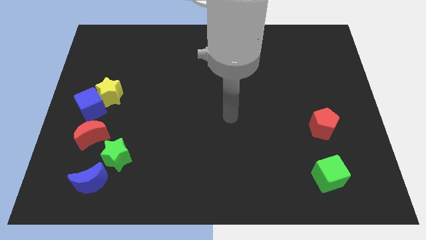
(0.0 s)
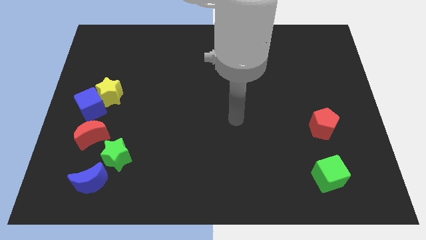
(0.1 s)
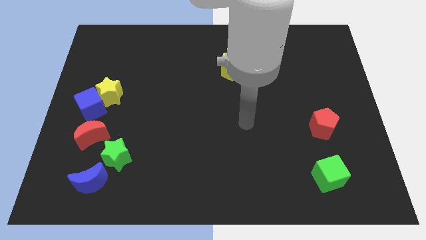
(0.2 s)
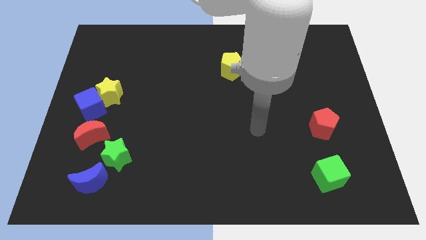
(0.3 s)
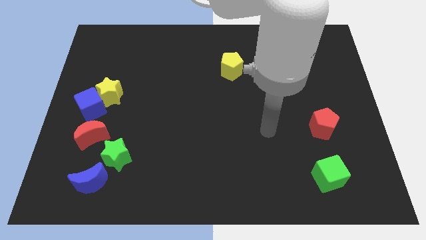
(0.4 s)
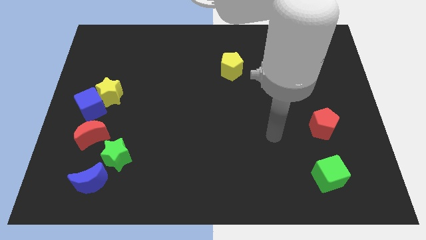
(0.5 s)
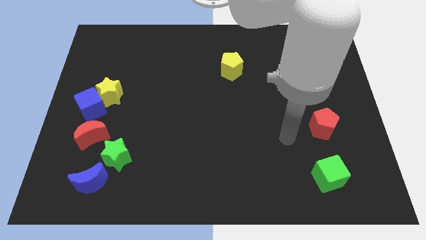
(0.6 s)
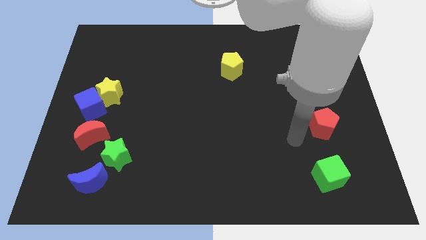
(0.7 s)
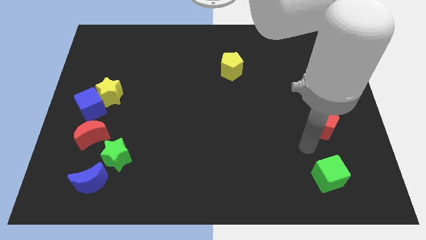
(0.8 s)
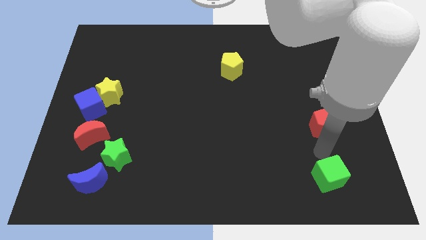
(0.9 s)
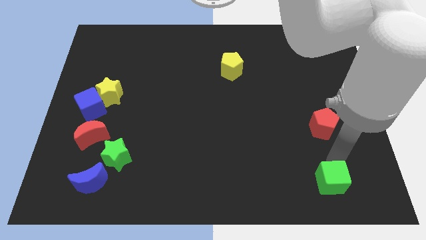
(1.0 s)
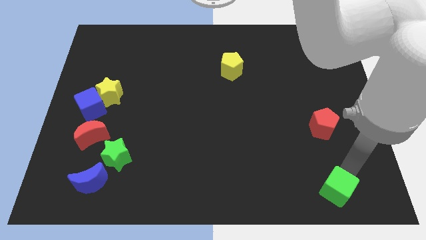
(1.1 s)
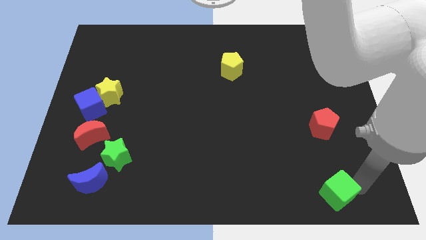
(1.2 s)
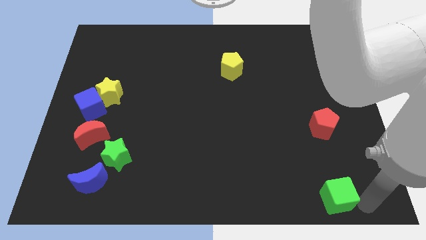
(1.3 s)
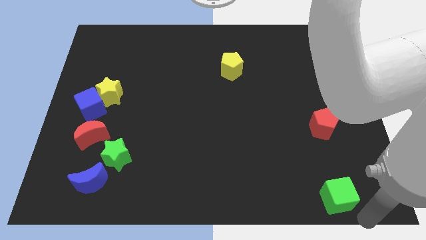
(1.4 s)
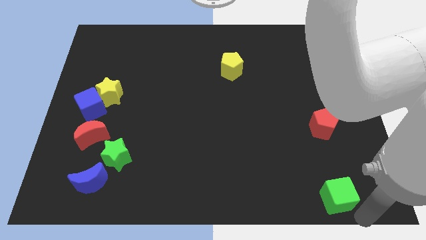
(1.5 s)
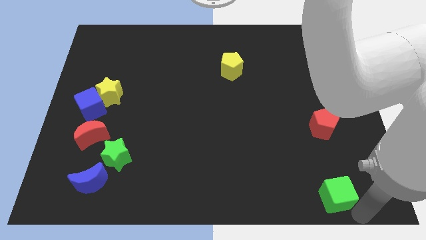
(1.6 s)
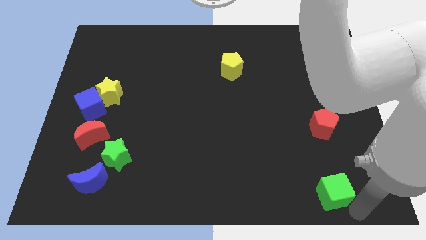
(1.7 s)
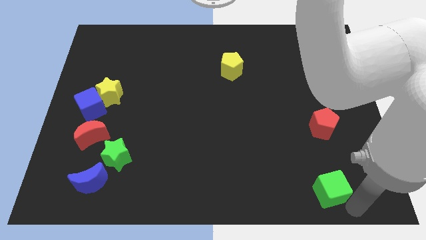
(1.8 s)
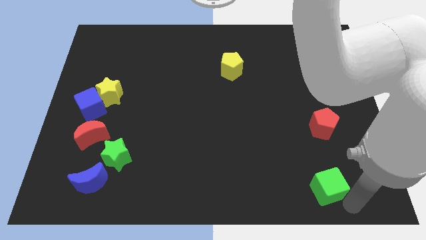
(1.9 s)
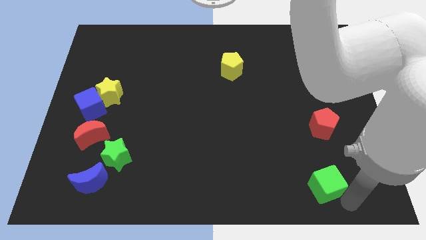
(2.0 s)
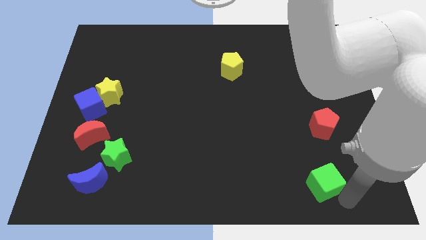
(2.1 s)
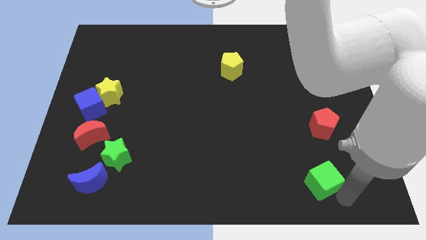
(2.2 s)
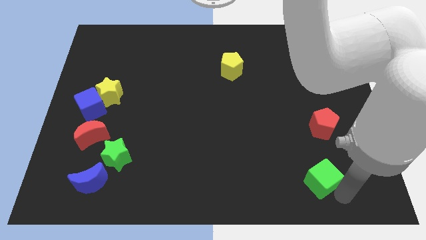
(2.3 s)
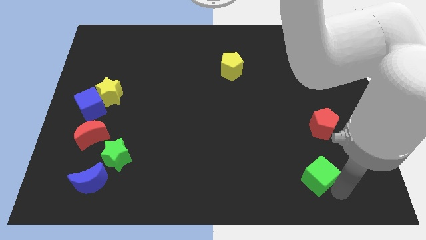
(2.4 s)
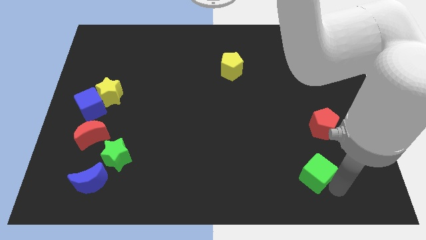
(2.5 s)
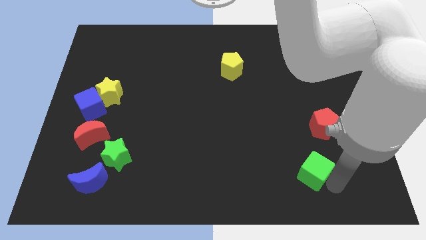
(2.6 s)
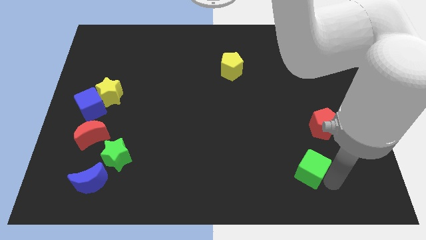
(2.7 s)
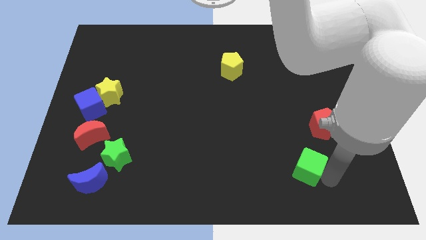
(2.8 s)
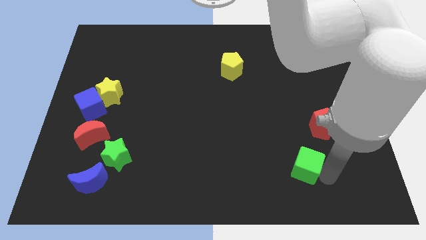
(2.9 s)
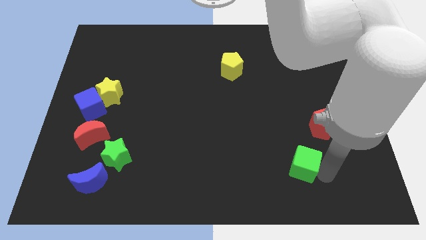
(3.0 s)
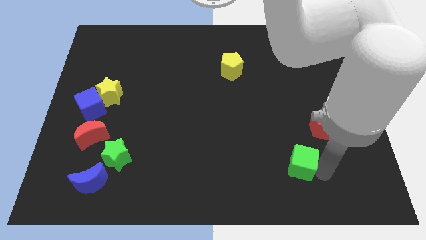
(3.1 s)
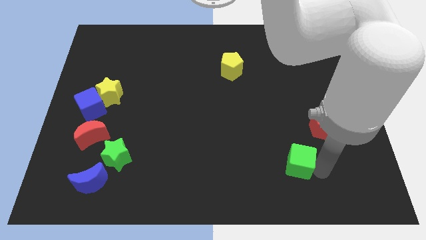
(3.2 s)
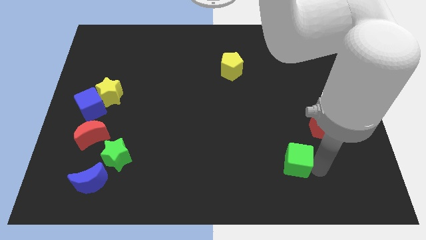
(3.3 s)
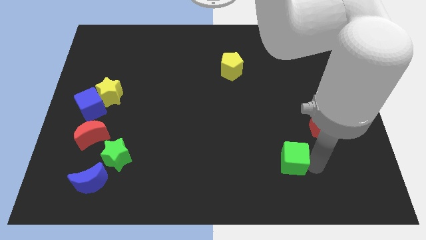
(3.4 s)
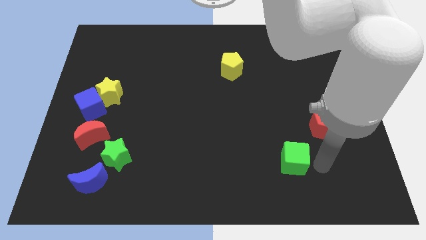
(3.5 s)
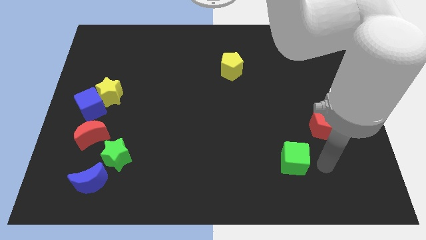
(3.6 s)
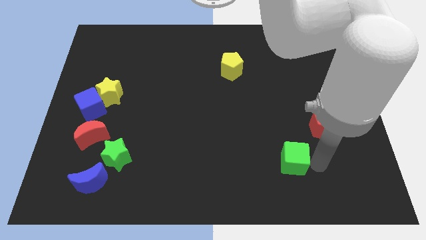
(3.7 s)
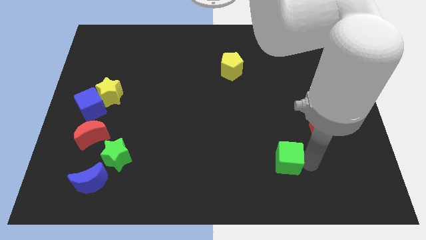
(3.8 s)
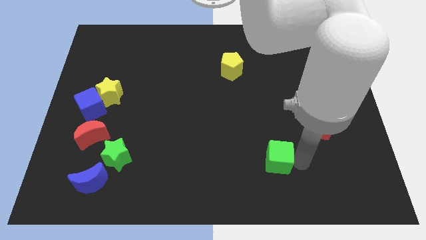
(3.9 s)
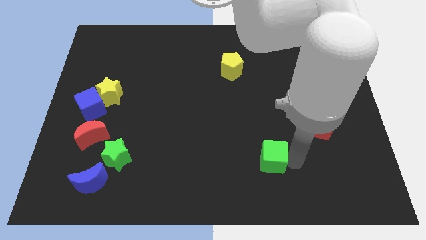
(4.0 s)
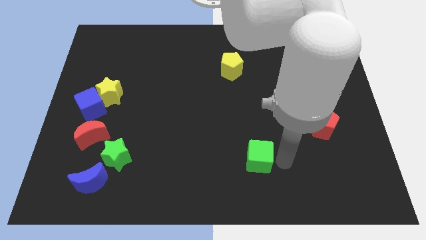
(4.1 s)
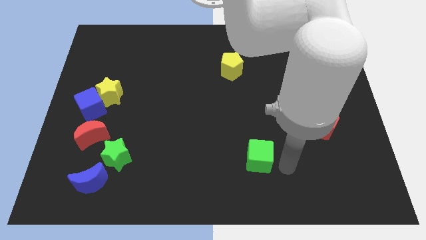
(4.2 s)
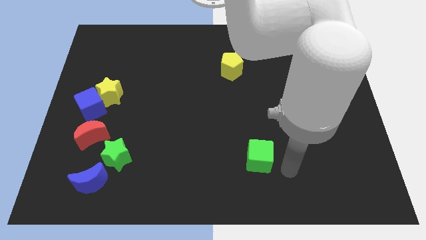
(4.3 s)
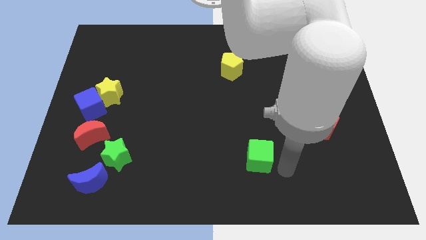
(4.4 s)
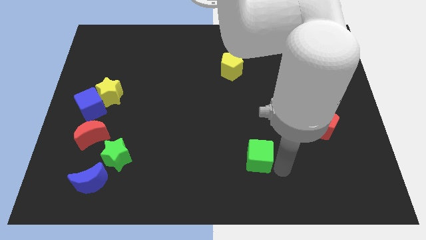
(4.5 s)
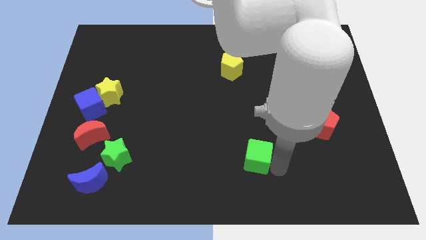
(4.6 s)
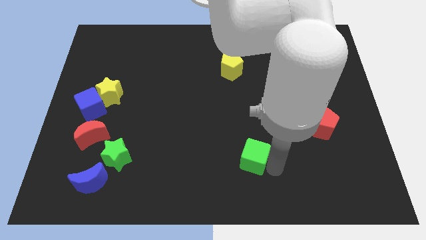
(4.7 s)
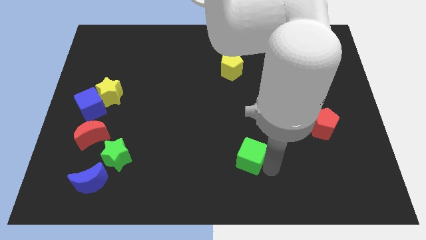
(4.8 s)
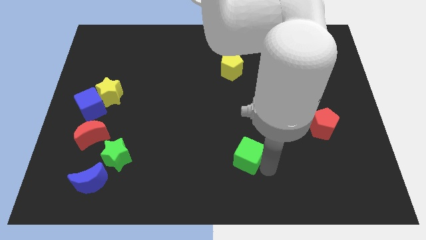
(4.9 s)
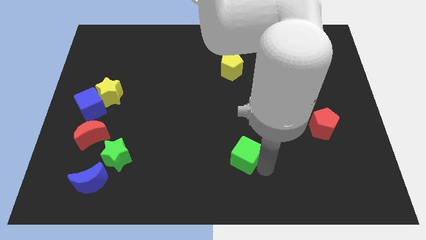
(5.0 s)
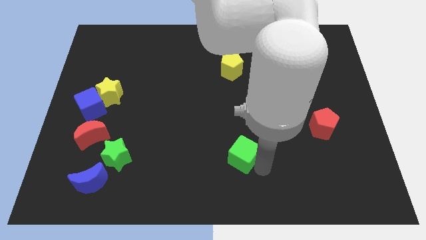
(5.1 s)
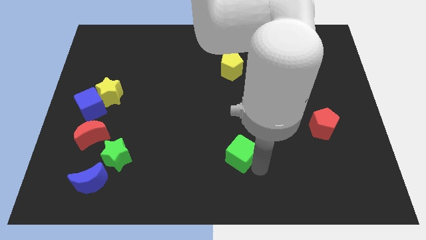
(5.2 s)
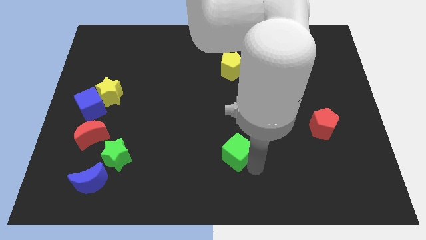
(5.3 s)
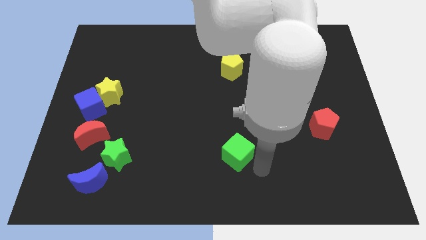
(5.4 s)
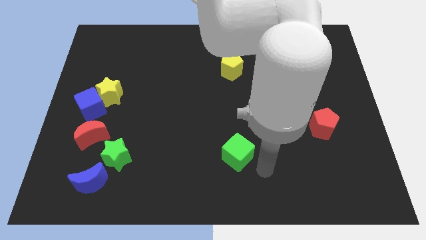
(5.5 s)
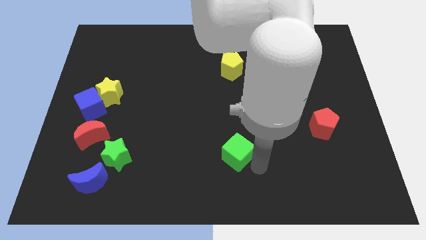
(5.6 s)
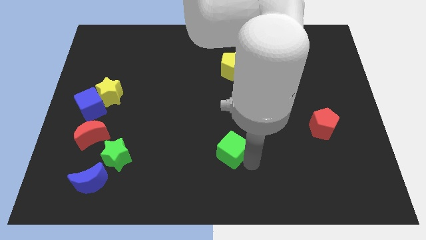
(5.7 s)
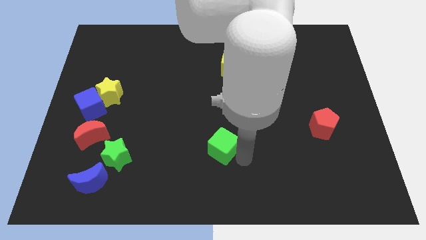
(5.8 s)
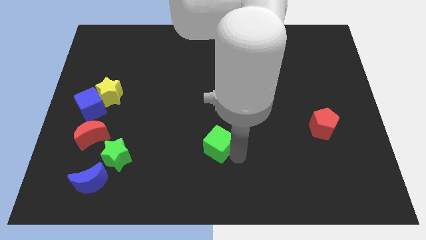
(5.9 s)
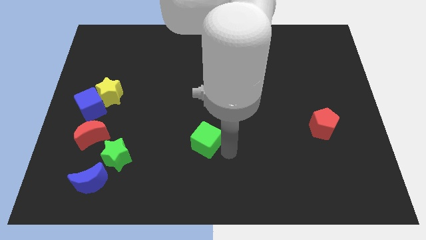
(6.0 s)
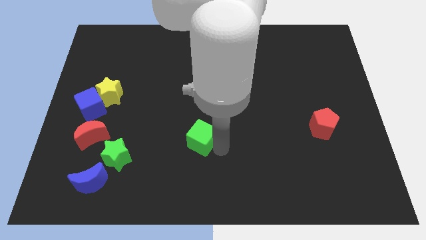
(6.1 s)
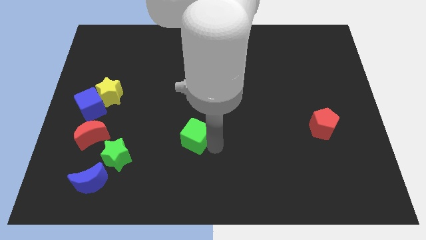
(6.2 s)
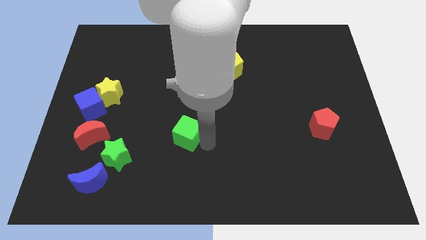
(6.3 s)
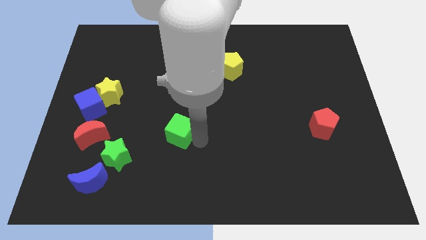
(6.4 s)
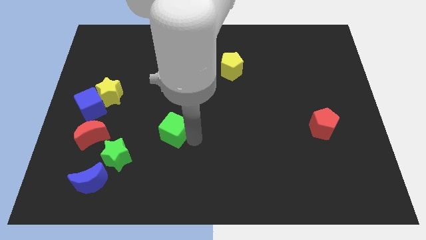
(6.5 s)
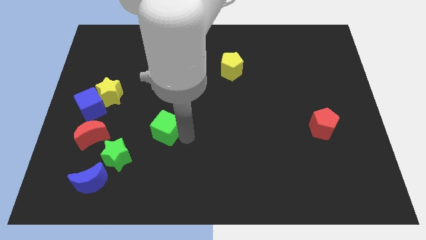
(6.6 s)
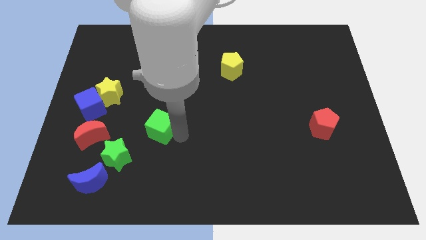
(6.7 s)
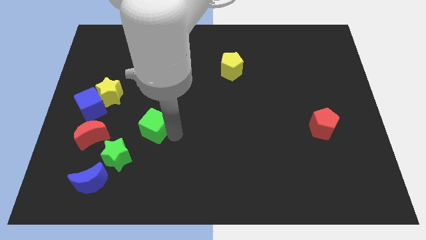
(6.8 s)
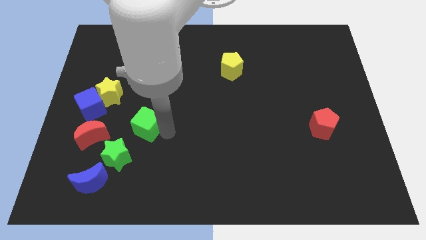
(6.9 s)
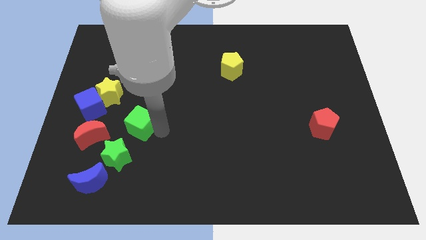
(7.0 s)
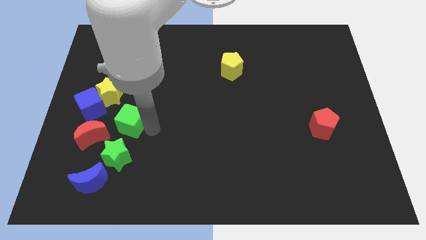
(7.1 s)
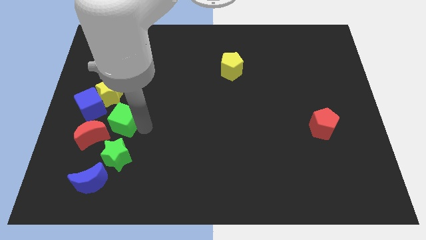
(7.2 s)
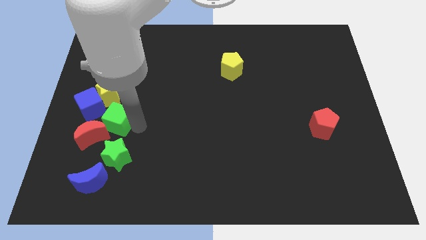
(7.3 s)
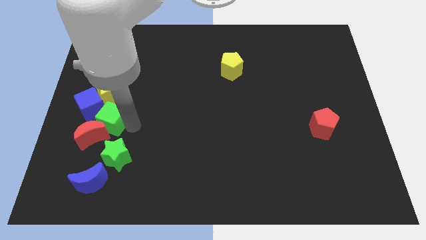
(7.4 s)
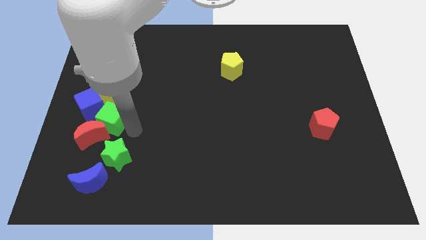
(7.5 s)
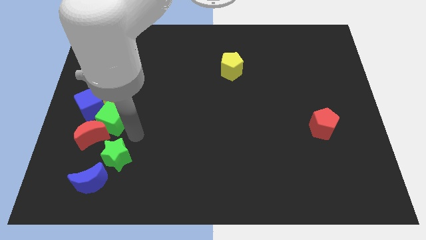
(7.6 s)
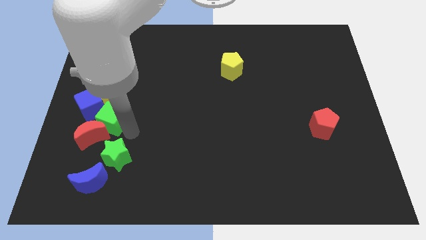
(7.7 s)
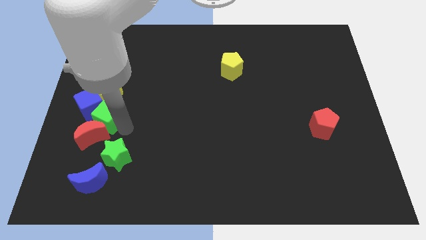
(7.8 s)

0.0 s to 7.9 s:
push the green cube towards the blue cube

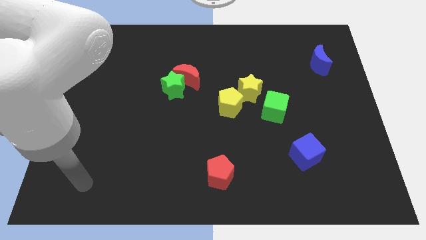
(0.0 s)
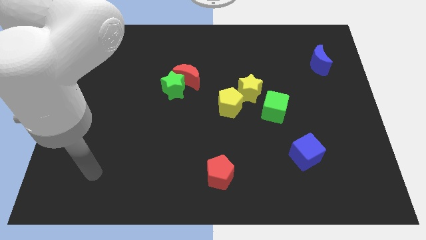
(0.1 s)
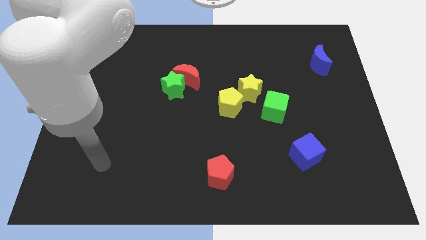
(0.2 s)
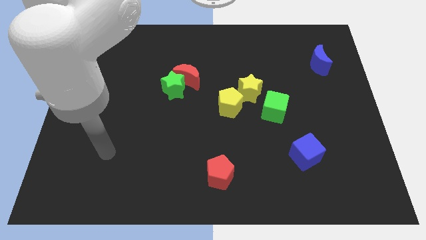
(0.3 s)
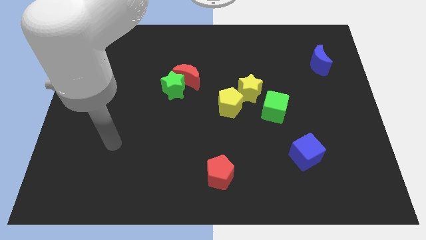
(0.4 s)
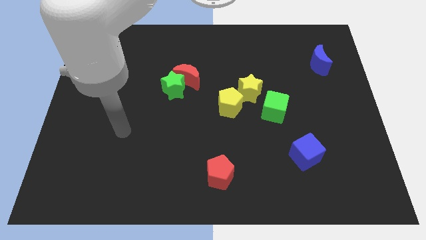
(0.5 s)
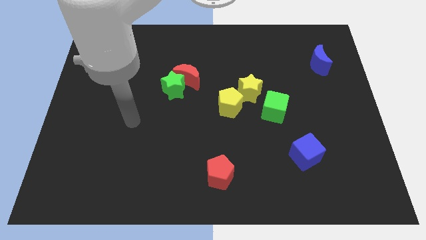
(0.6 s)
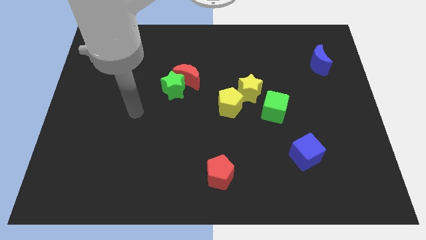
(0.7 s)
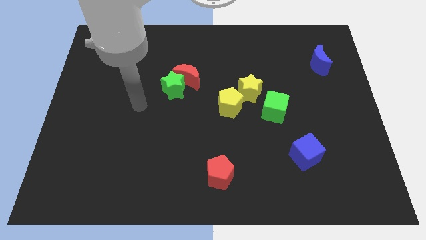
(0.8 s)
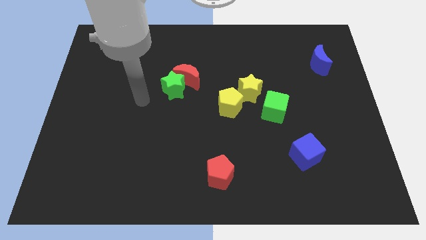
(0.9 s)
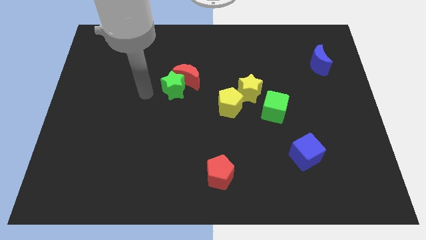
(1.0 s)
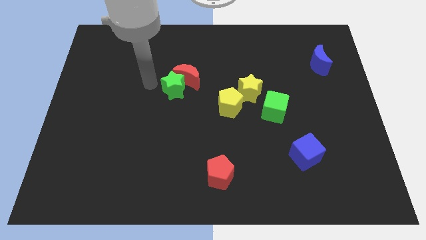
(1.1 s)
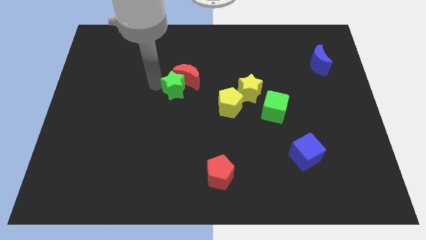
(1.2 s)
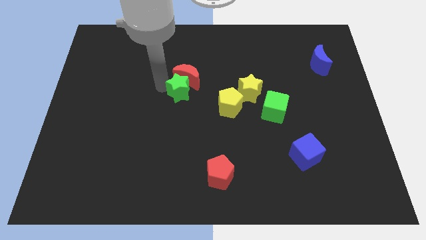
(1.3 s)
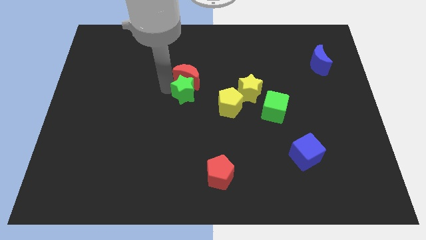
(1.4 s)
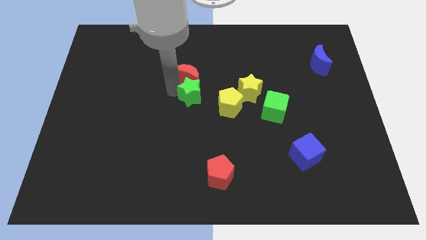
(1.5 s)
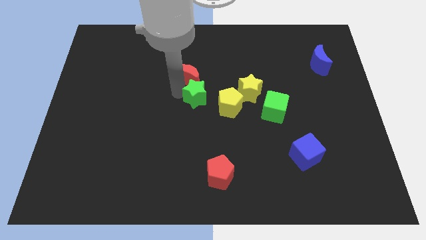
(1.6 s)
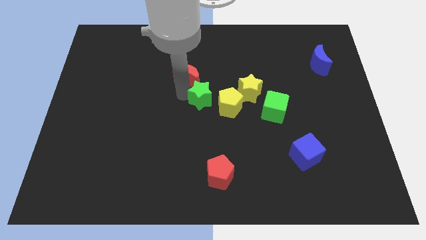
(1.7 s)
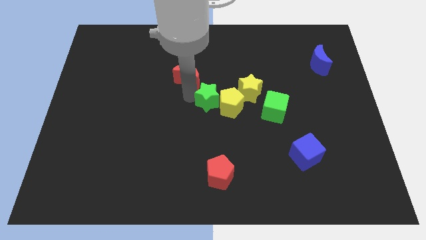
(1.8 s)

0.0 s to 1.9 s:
move the green star next to the yellow pentagon
